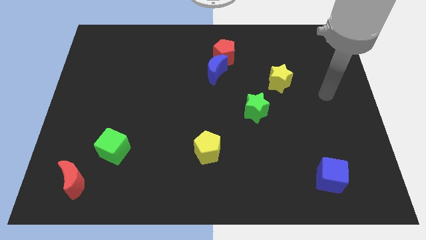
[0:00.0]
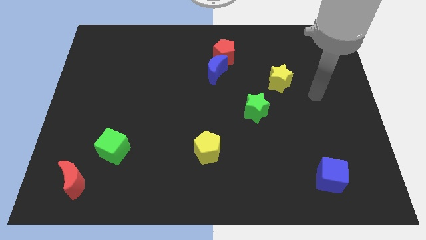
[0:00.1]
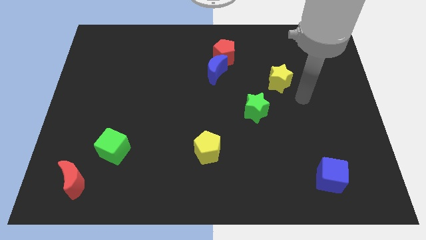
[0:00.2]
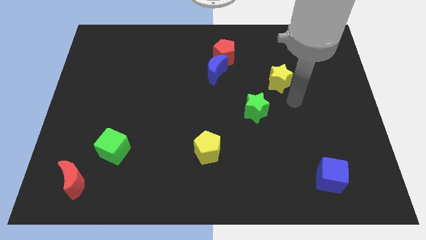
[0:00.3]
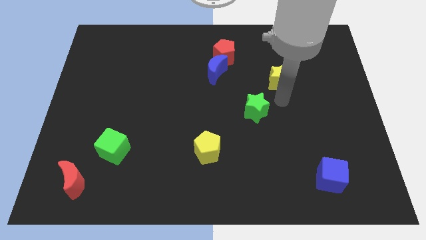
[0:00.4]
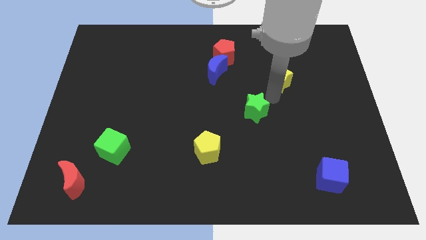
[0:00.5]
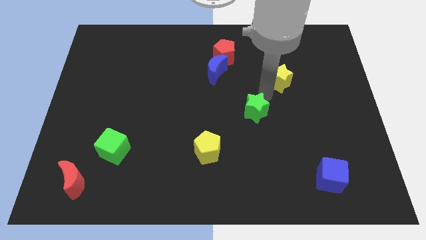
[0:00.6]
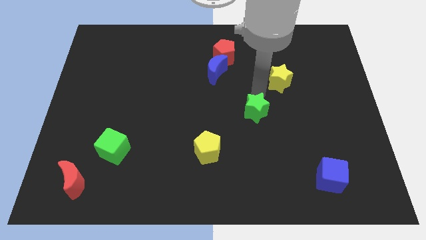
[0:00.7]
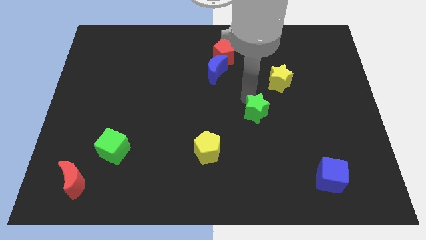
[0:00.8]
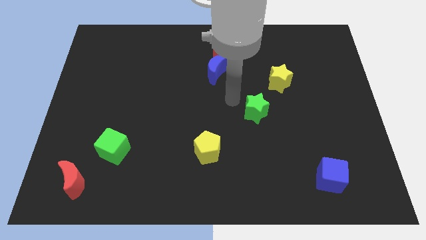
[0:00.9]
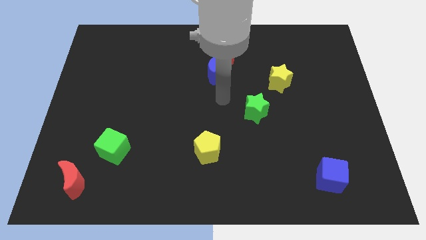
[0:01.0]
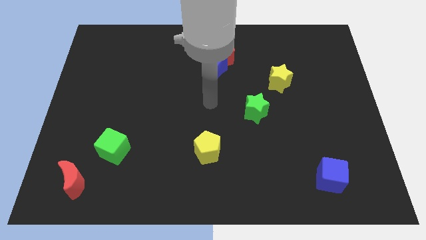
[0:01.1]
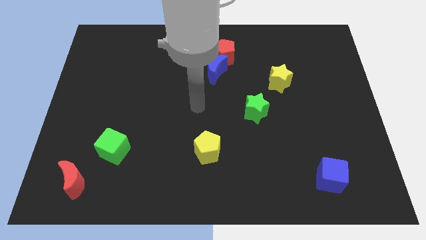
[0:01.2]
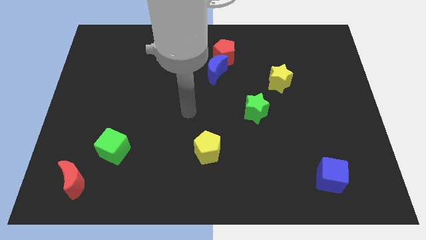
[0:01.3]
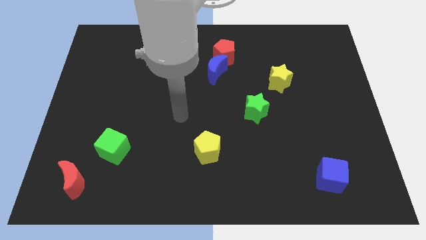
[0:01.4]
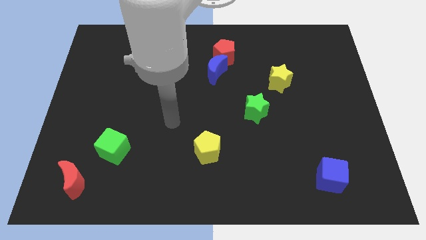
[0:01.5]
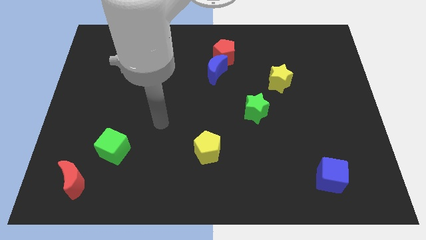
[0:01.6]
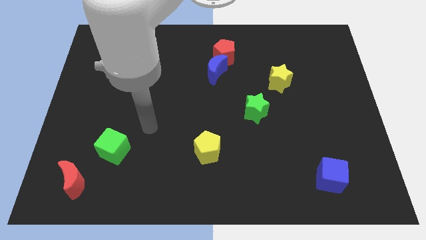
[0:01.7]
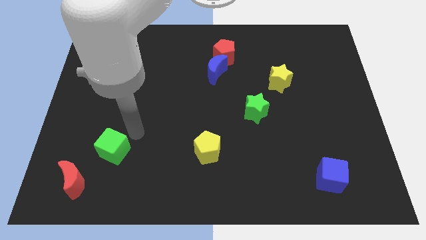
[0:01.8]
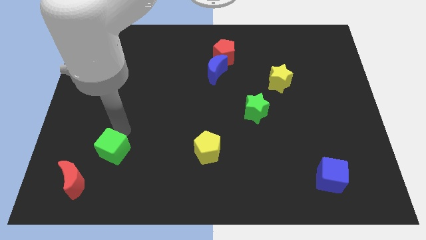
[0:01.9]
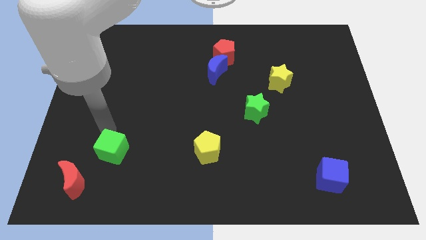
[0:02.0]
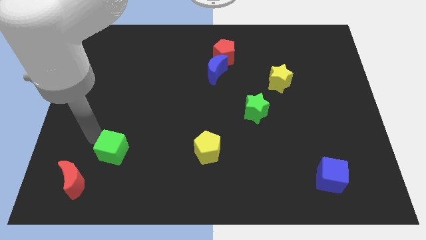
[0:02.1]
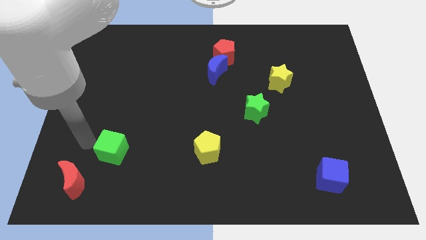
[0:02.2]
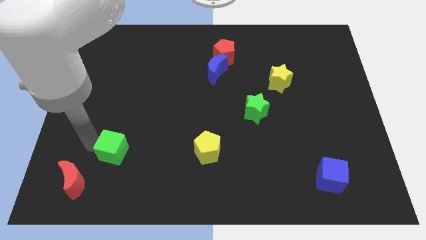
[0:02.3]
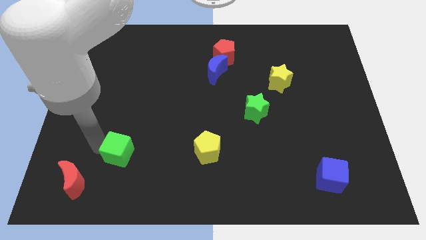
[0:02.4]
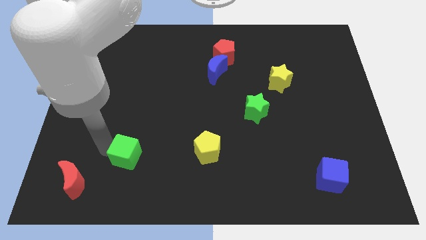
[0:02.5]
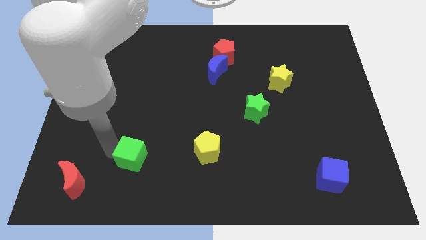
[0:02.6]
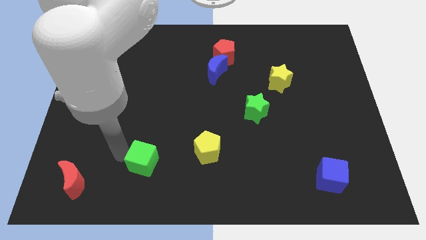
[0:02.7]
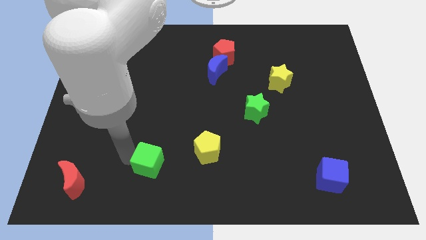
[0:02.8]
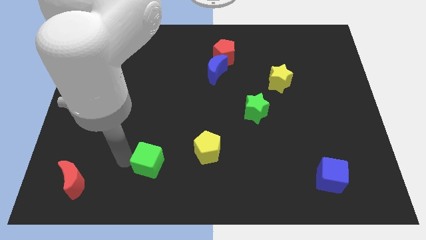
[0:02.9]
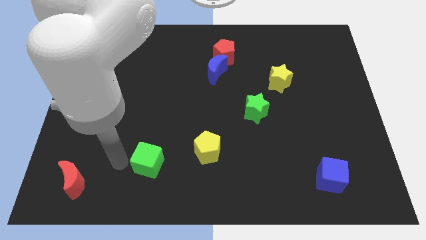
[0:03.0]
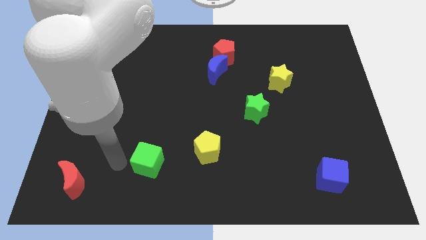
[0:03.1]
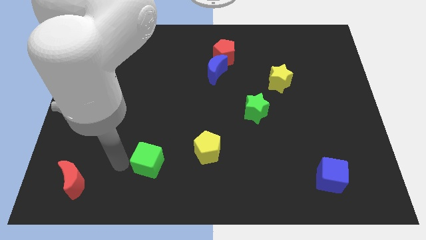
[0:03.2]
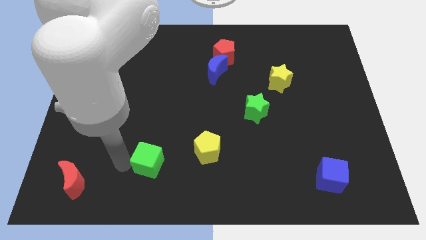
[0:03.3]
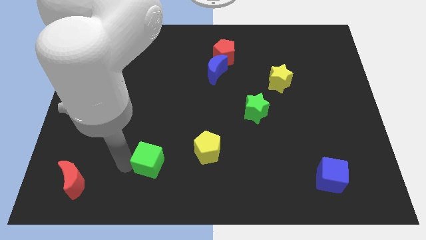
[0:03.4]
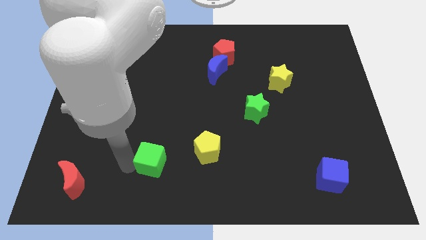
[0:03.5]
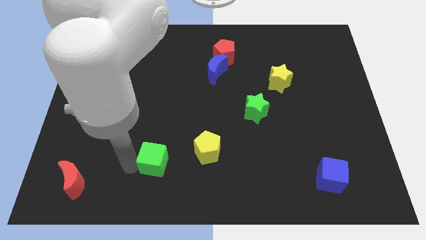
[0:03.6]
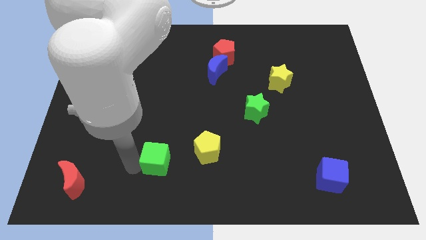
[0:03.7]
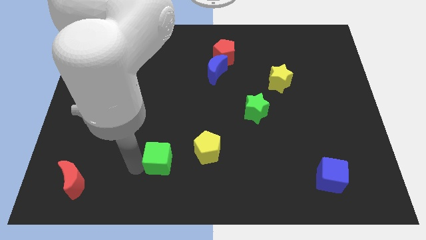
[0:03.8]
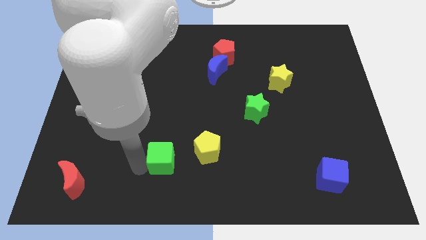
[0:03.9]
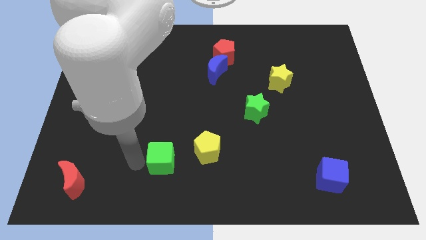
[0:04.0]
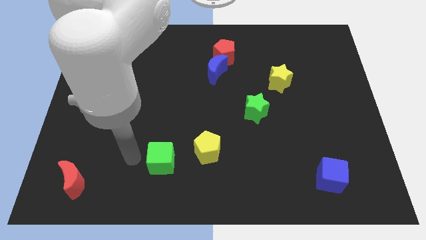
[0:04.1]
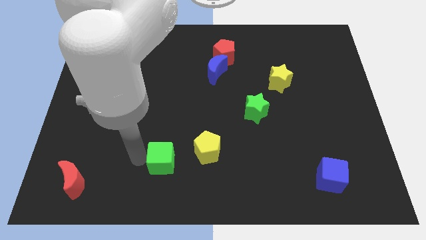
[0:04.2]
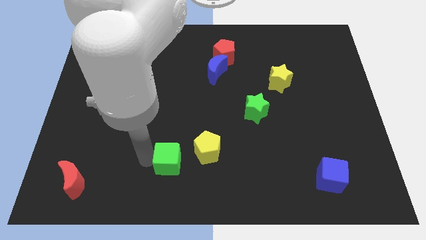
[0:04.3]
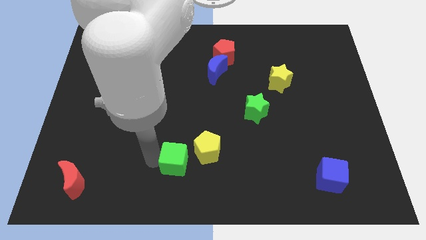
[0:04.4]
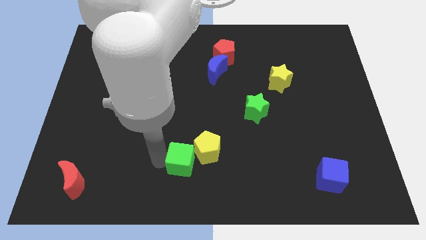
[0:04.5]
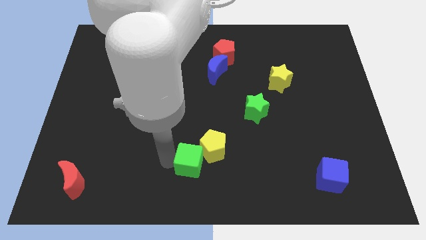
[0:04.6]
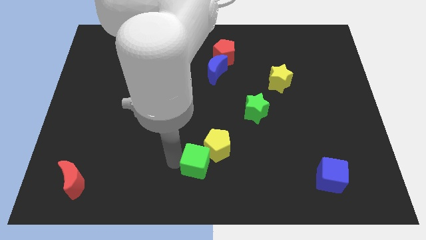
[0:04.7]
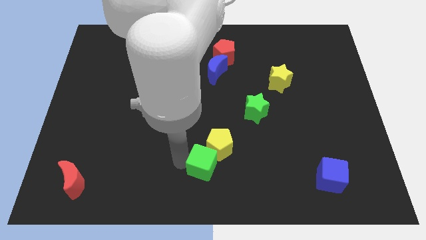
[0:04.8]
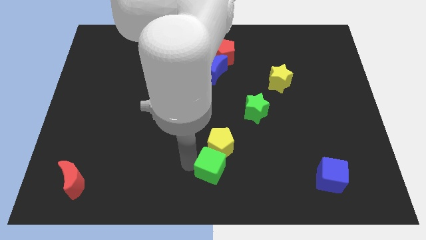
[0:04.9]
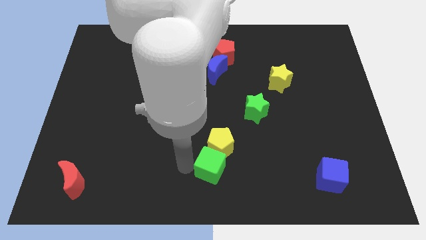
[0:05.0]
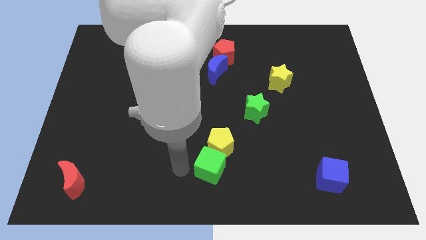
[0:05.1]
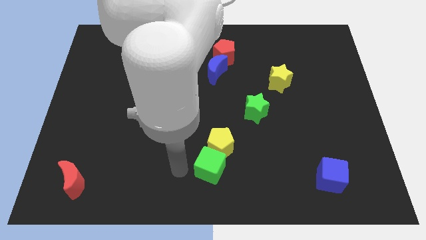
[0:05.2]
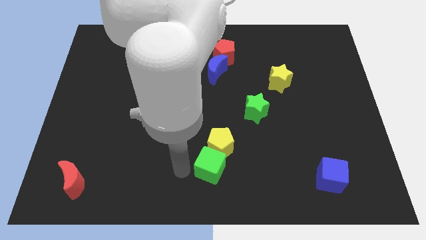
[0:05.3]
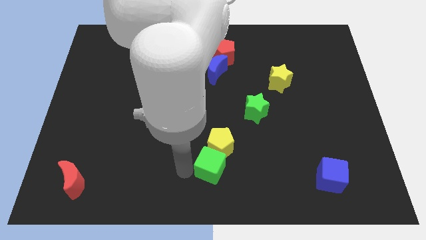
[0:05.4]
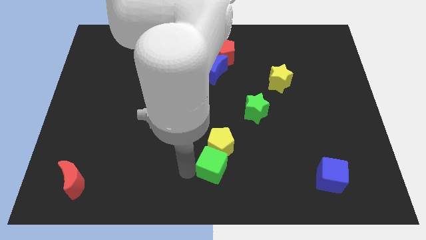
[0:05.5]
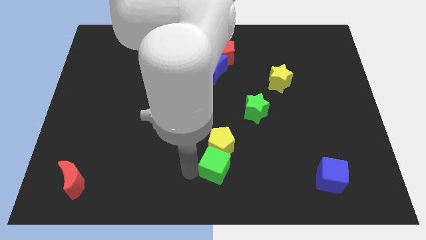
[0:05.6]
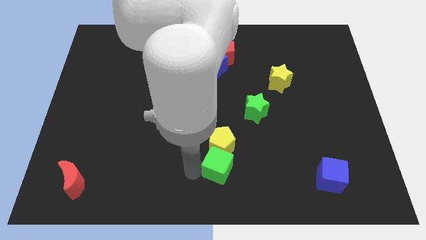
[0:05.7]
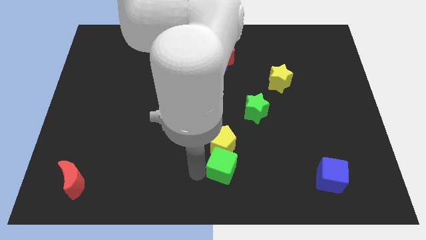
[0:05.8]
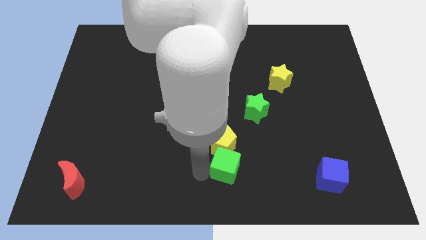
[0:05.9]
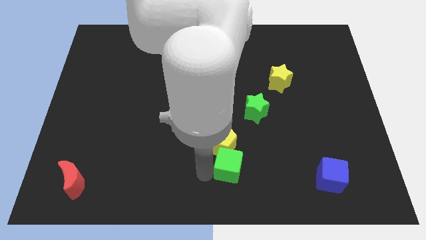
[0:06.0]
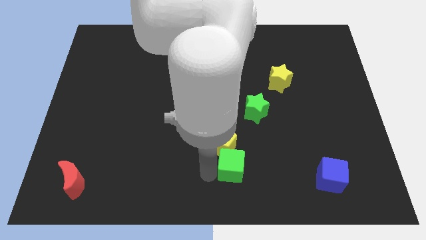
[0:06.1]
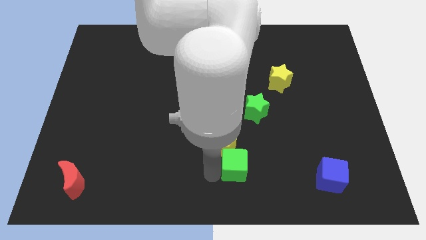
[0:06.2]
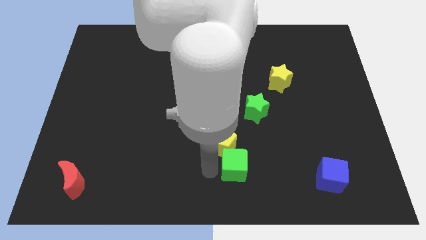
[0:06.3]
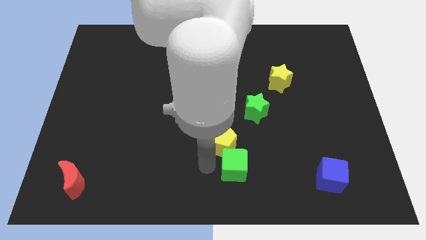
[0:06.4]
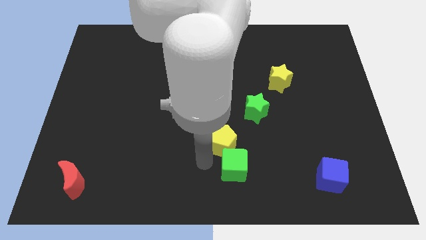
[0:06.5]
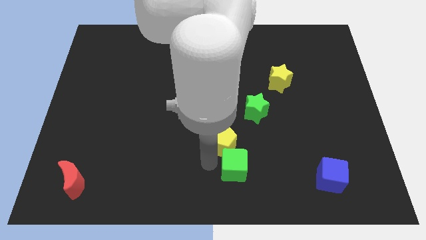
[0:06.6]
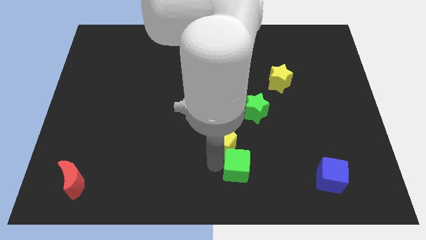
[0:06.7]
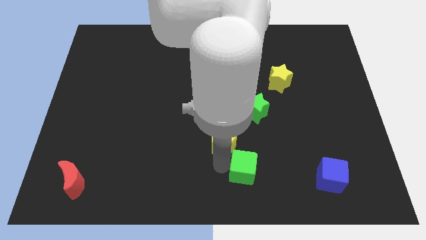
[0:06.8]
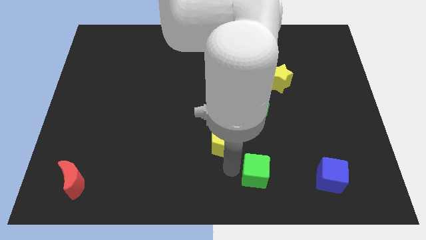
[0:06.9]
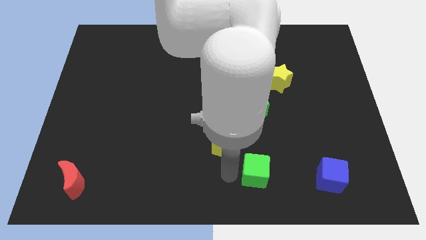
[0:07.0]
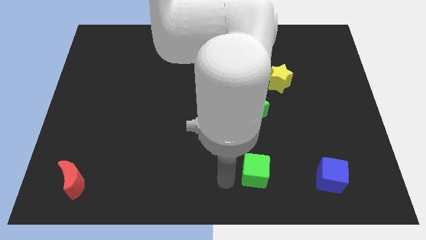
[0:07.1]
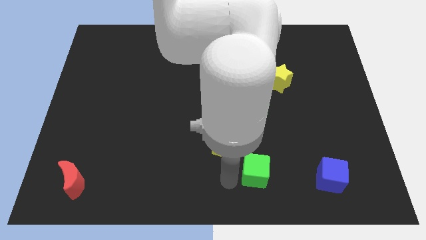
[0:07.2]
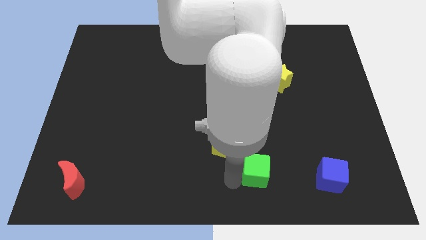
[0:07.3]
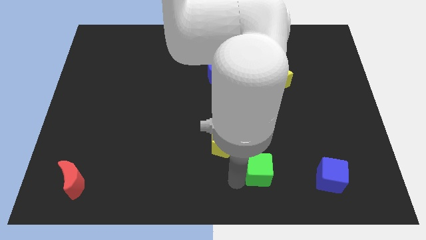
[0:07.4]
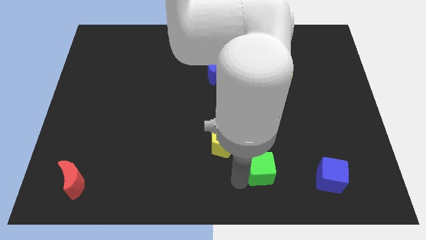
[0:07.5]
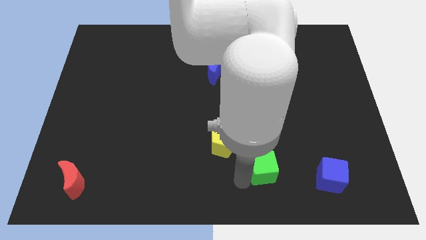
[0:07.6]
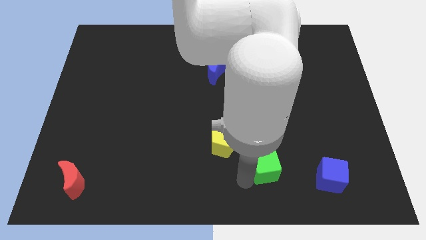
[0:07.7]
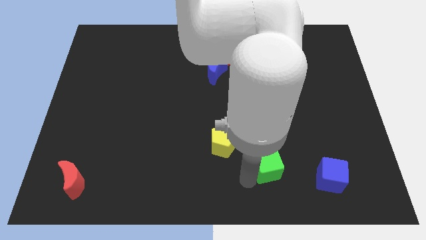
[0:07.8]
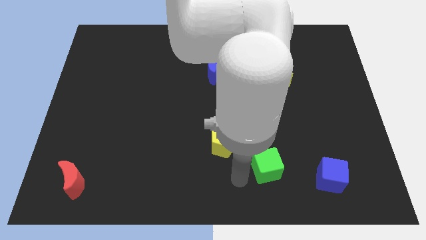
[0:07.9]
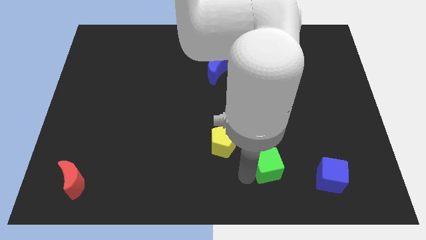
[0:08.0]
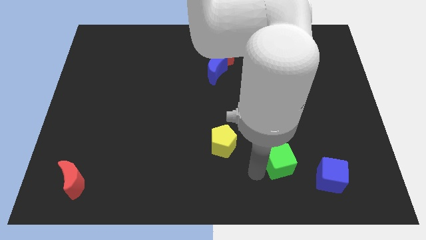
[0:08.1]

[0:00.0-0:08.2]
push the green cube to the top left of the blue cube
